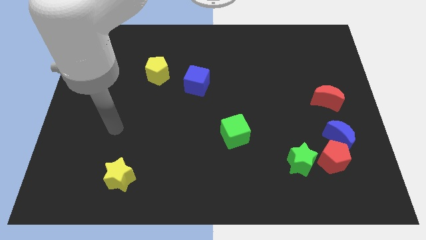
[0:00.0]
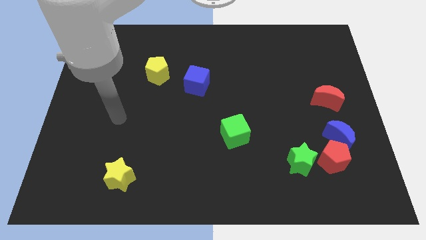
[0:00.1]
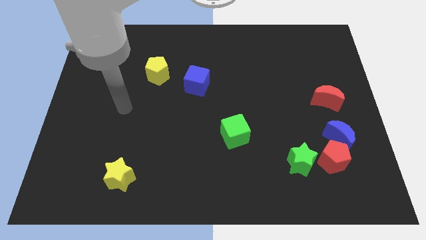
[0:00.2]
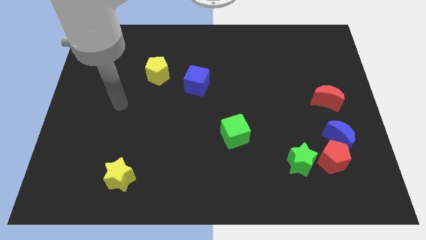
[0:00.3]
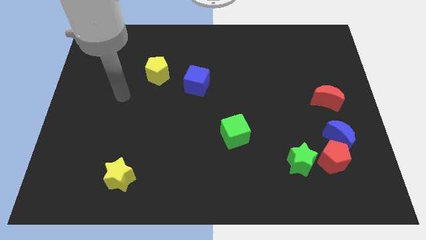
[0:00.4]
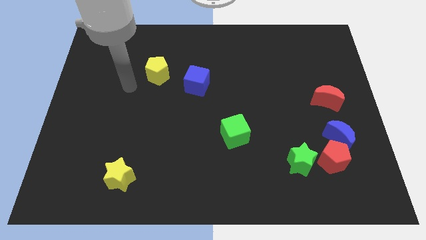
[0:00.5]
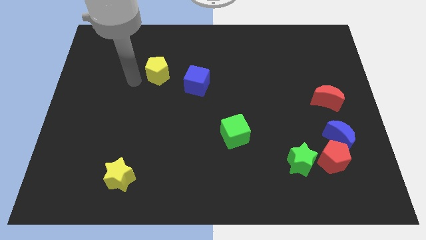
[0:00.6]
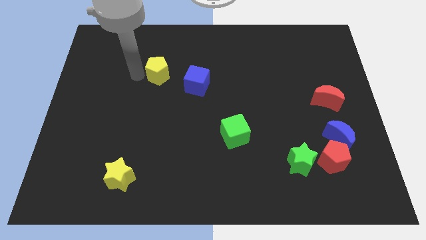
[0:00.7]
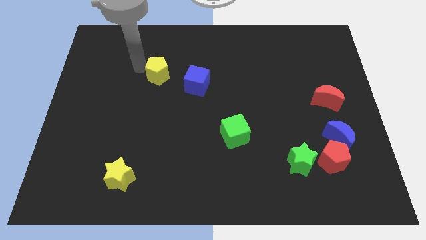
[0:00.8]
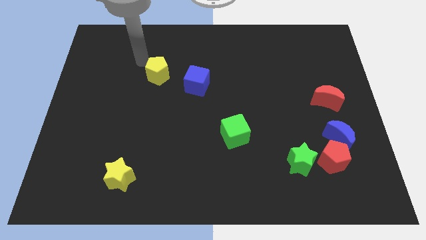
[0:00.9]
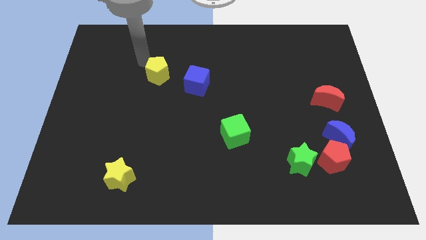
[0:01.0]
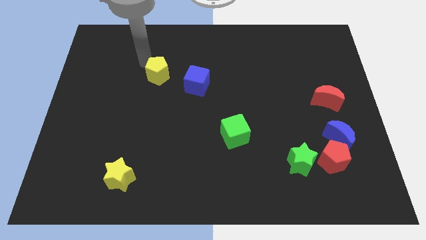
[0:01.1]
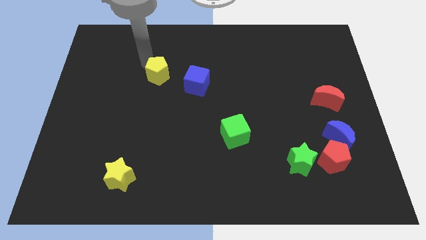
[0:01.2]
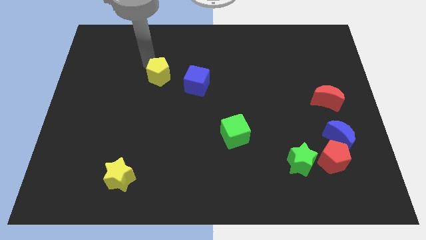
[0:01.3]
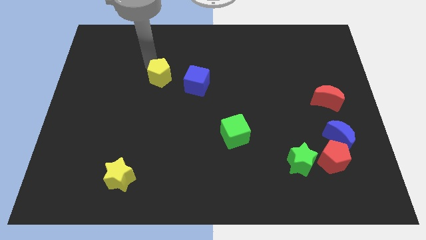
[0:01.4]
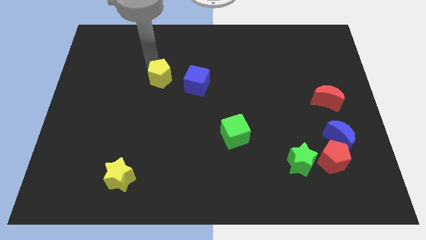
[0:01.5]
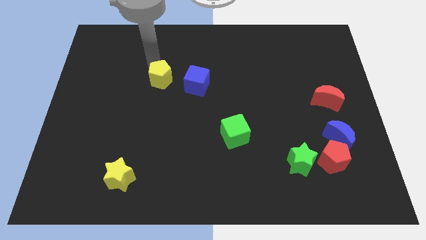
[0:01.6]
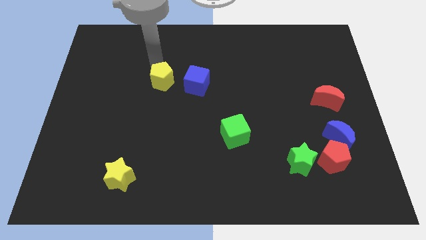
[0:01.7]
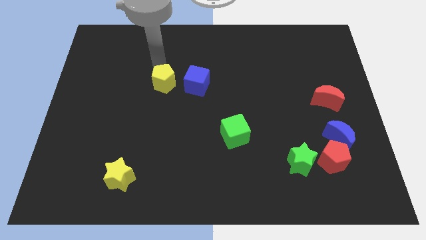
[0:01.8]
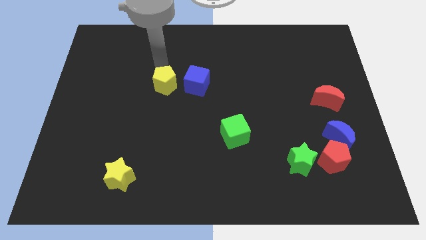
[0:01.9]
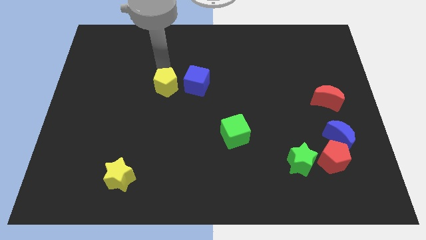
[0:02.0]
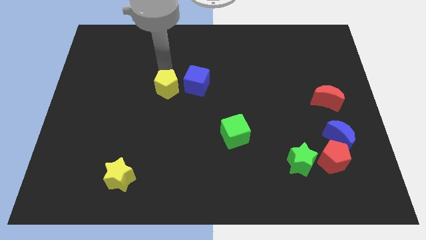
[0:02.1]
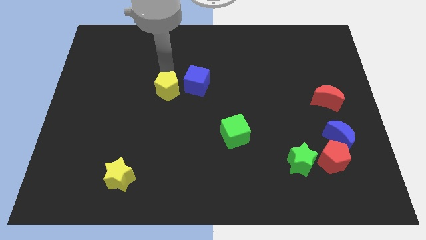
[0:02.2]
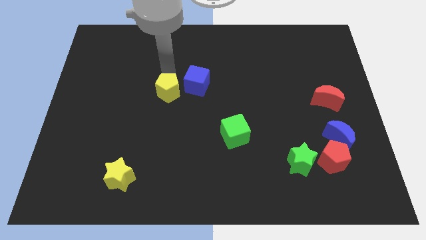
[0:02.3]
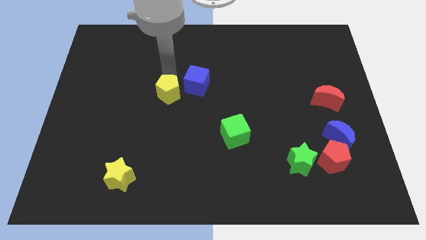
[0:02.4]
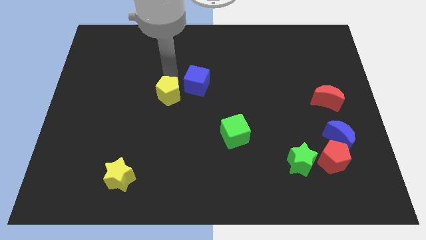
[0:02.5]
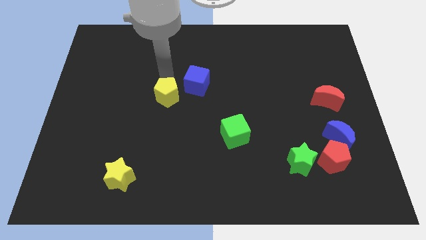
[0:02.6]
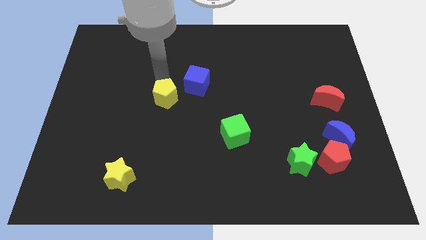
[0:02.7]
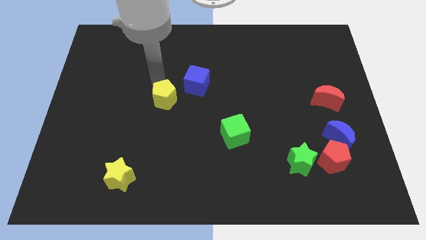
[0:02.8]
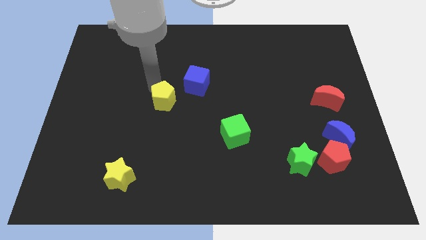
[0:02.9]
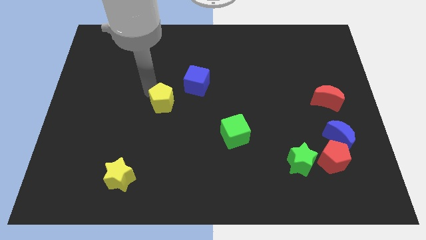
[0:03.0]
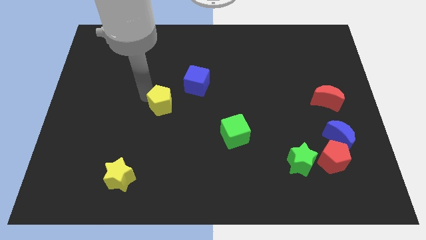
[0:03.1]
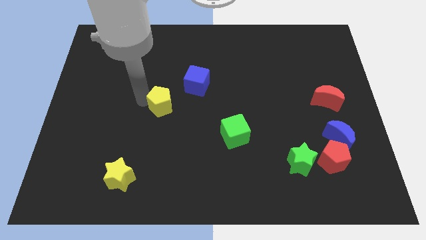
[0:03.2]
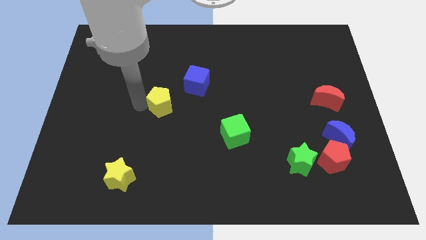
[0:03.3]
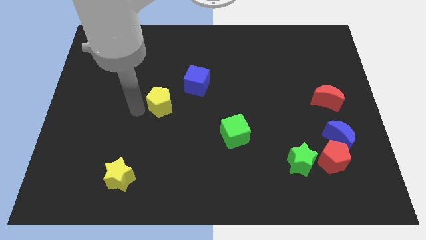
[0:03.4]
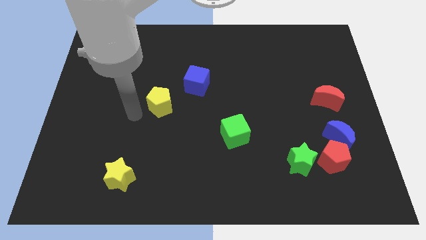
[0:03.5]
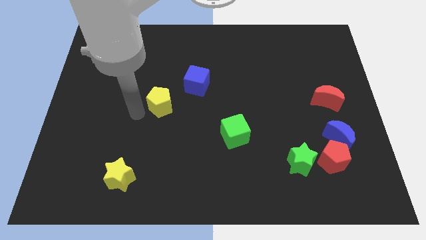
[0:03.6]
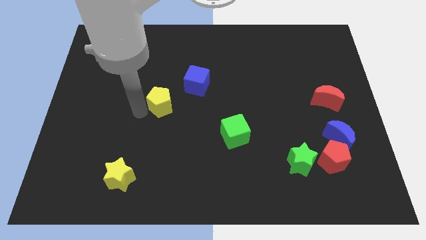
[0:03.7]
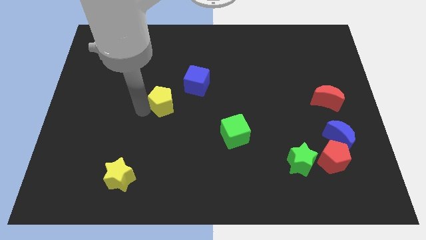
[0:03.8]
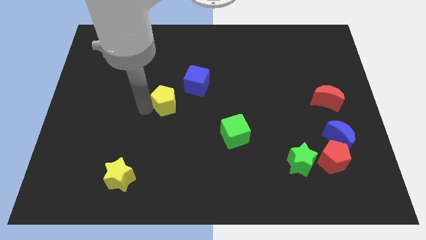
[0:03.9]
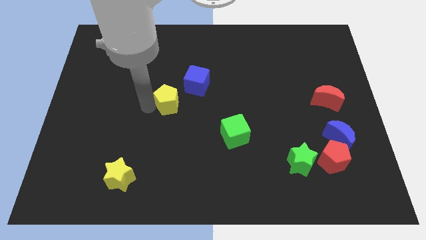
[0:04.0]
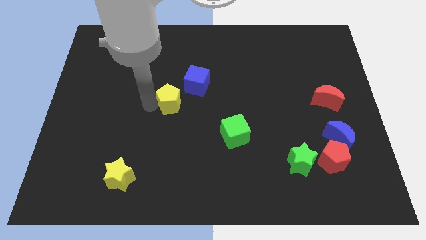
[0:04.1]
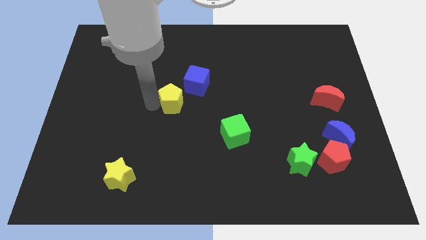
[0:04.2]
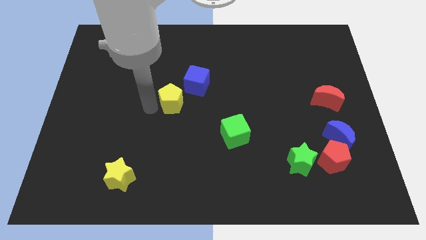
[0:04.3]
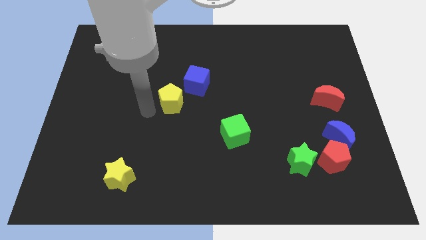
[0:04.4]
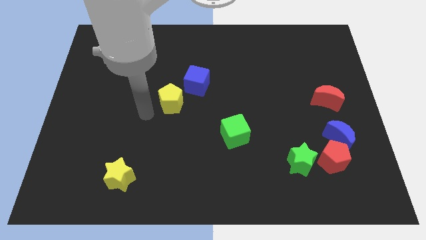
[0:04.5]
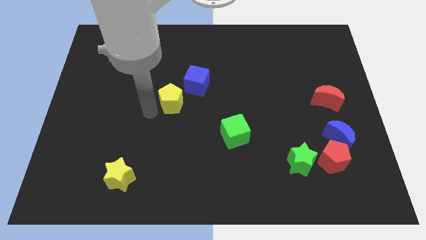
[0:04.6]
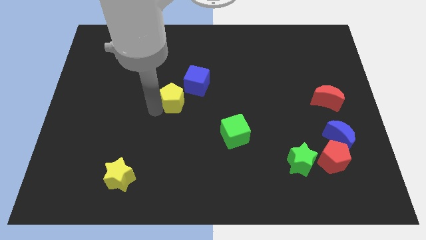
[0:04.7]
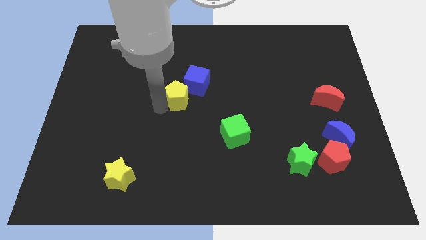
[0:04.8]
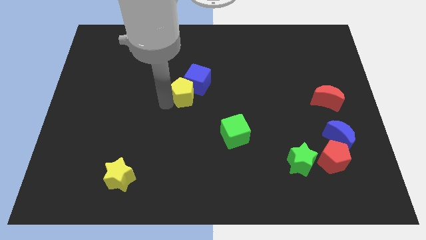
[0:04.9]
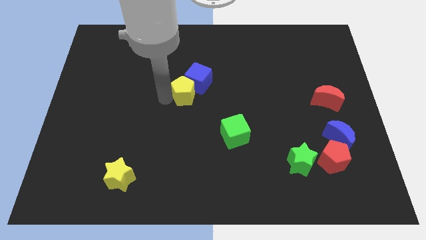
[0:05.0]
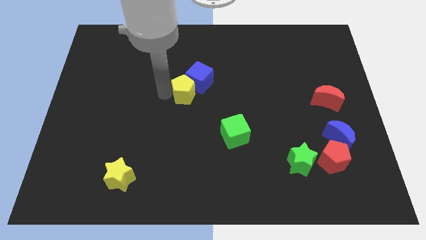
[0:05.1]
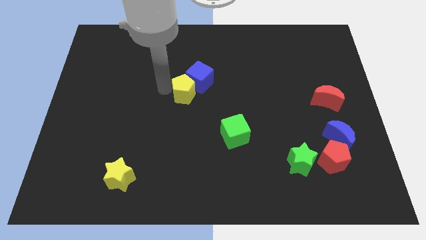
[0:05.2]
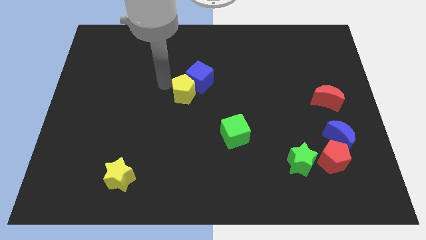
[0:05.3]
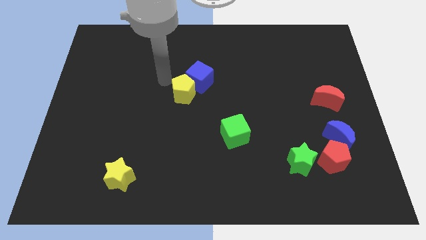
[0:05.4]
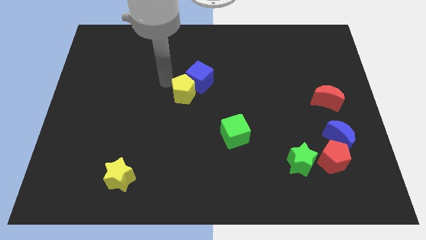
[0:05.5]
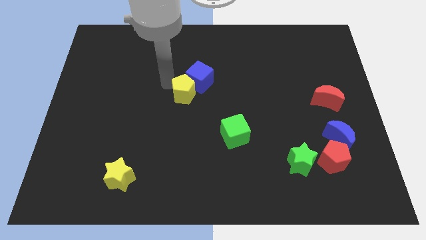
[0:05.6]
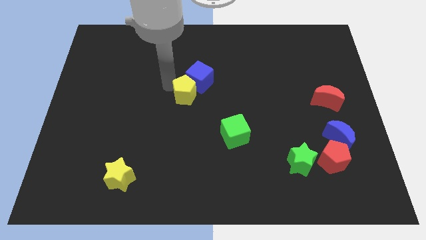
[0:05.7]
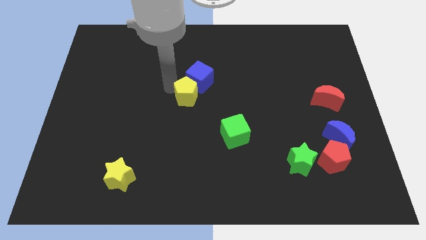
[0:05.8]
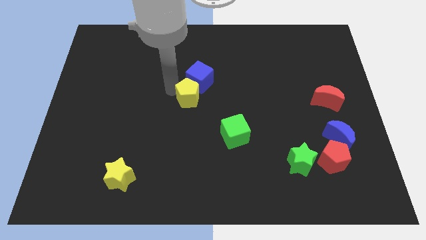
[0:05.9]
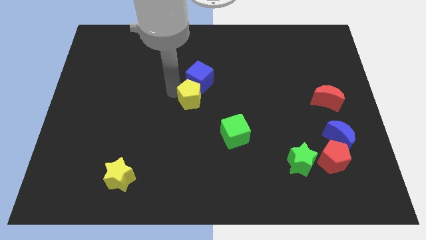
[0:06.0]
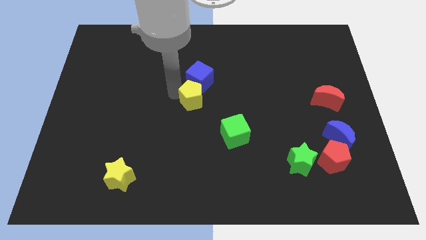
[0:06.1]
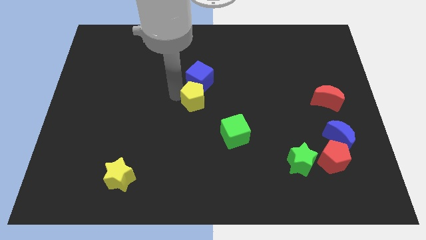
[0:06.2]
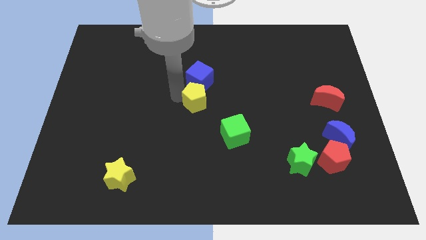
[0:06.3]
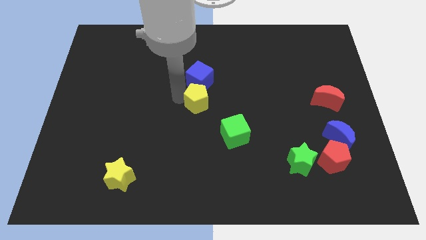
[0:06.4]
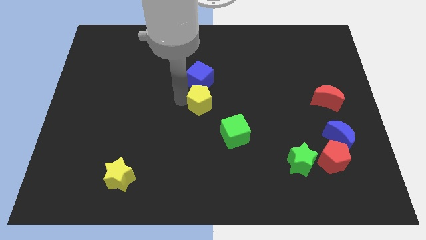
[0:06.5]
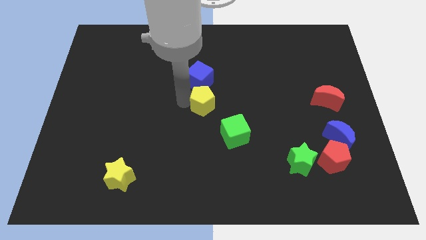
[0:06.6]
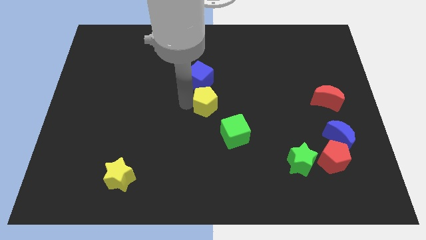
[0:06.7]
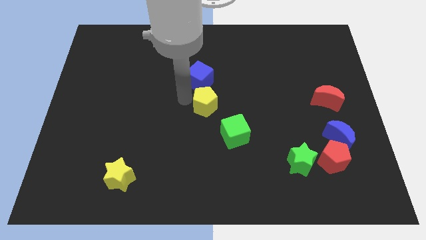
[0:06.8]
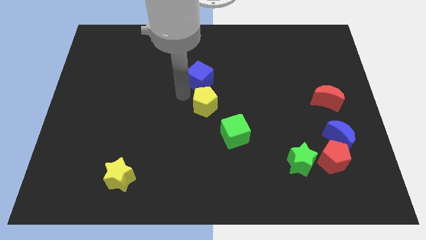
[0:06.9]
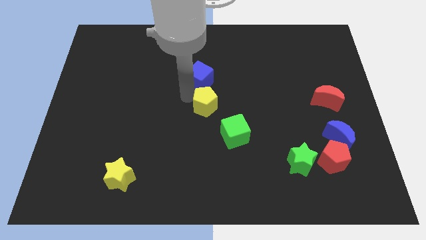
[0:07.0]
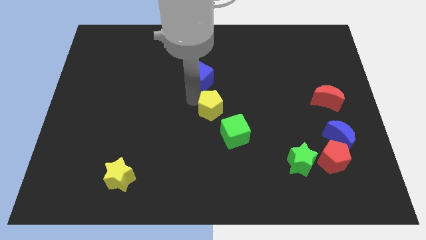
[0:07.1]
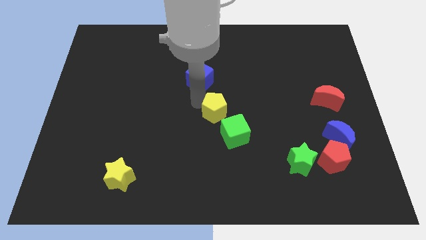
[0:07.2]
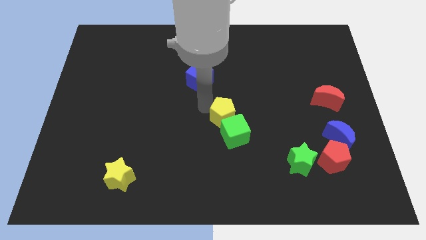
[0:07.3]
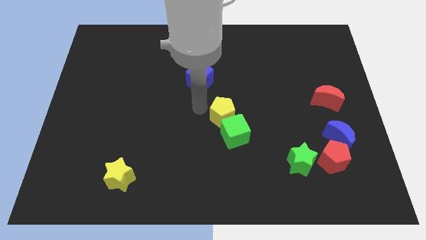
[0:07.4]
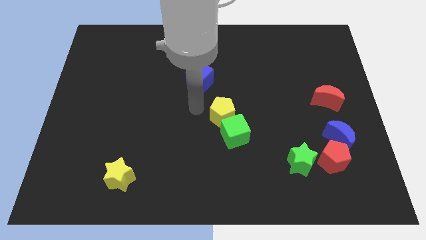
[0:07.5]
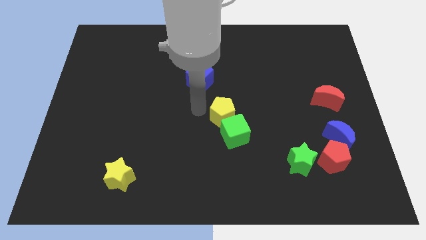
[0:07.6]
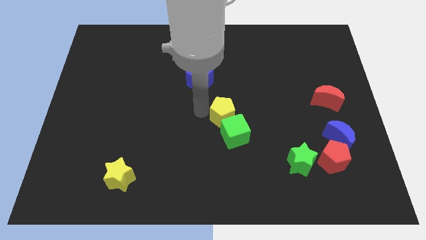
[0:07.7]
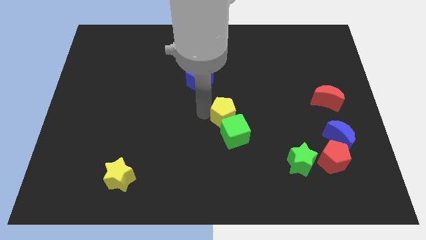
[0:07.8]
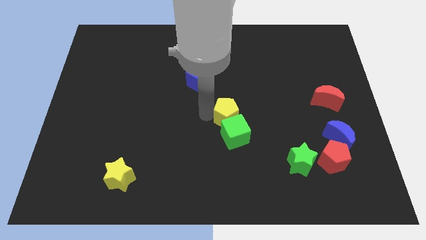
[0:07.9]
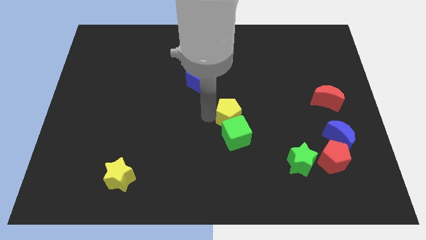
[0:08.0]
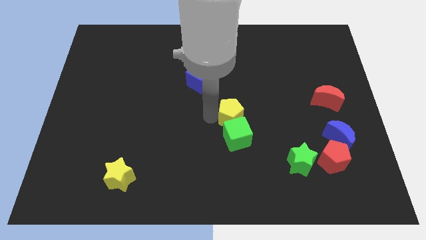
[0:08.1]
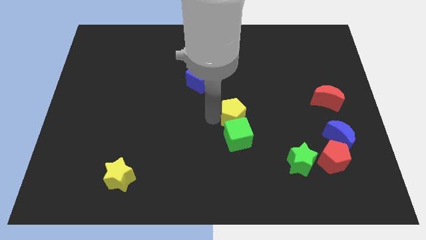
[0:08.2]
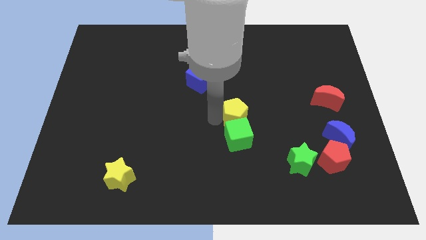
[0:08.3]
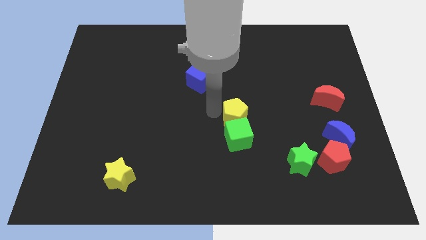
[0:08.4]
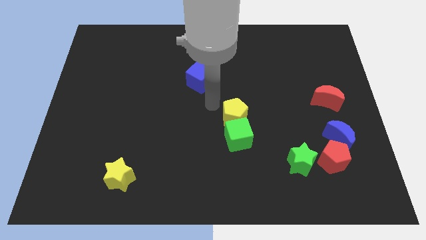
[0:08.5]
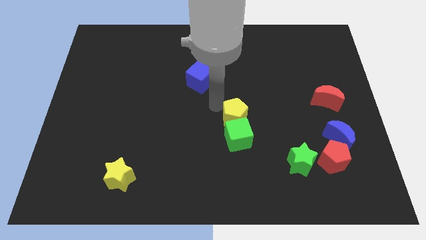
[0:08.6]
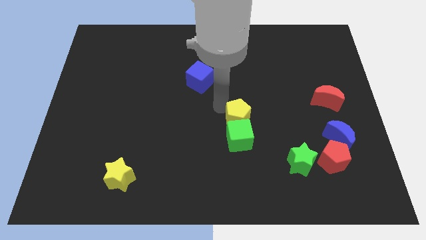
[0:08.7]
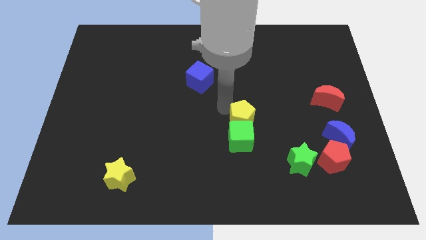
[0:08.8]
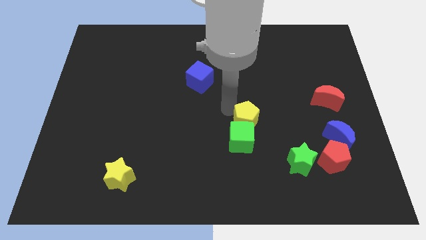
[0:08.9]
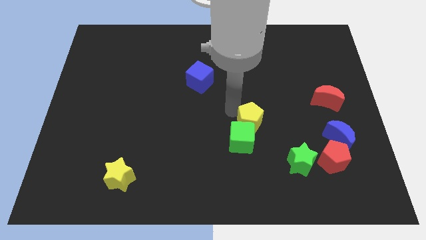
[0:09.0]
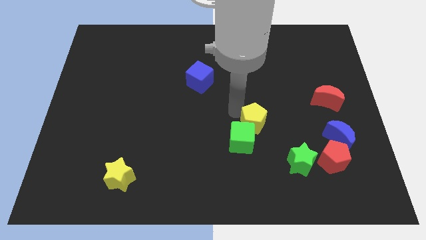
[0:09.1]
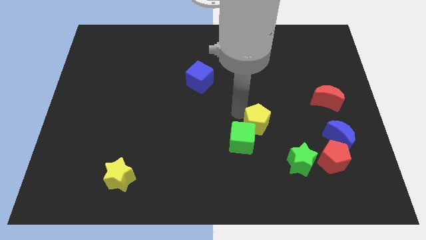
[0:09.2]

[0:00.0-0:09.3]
put the yellow pentagon to the top left of the green star
